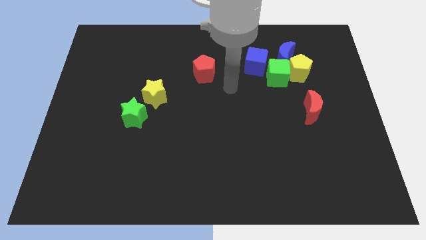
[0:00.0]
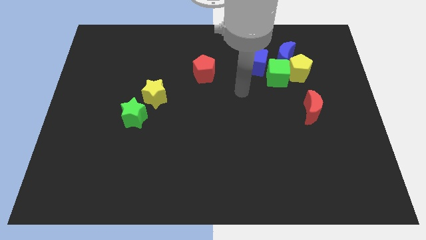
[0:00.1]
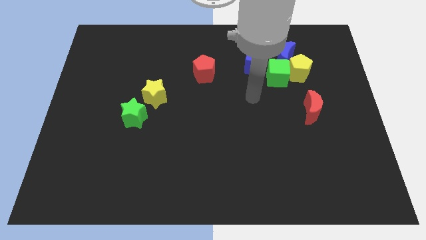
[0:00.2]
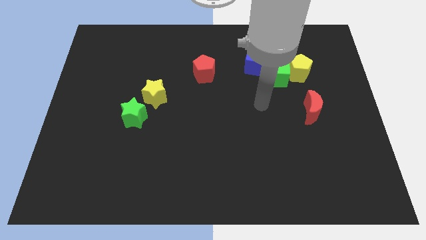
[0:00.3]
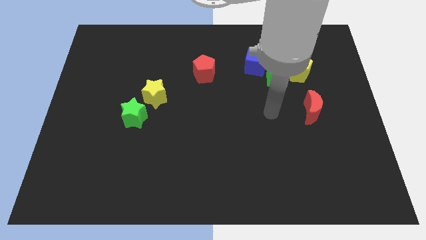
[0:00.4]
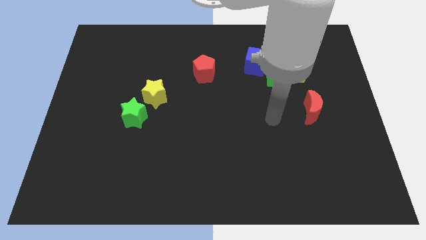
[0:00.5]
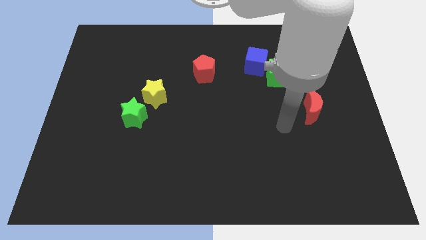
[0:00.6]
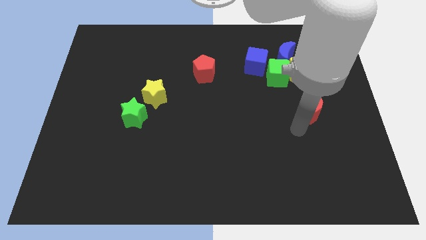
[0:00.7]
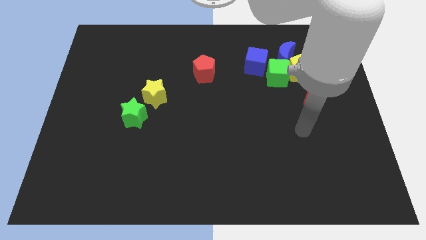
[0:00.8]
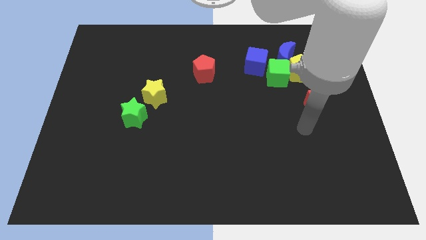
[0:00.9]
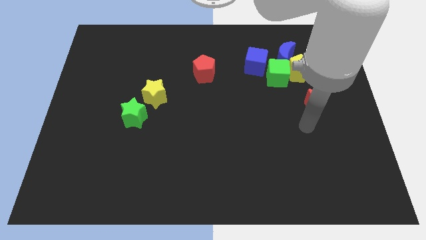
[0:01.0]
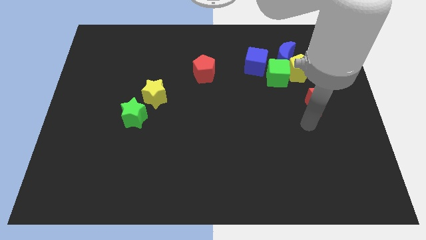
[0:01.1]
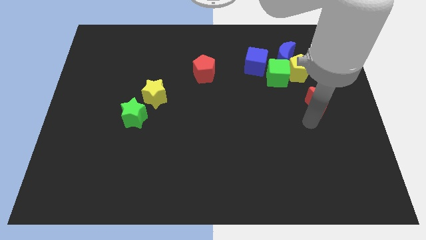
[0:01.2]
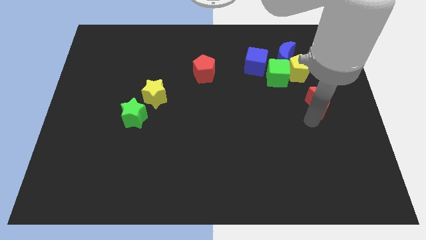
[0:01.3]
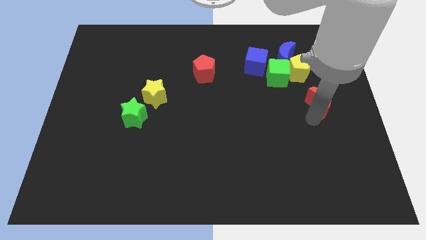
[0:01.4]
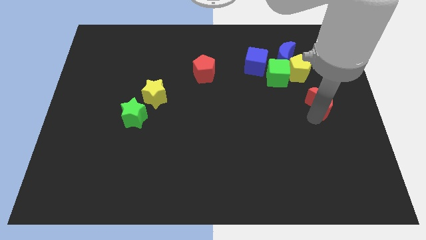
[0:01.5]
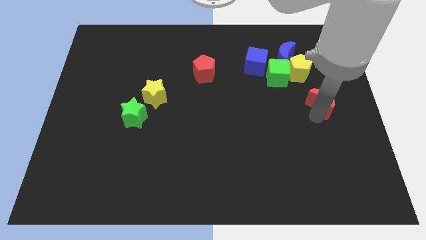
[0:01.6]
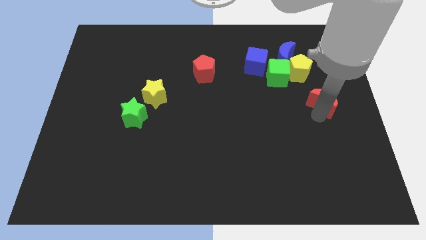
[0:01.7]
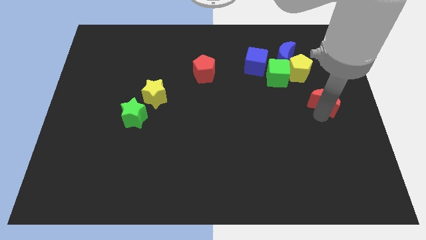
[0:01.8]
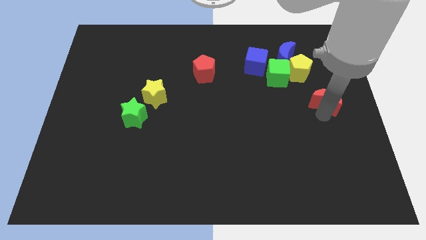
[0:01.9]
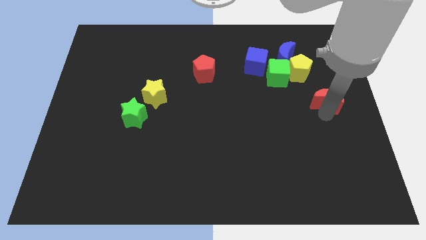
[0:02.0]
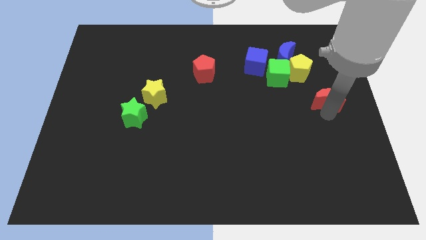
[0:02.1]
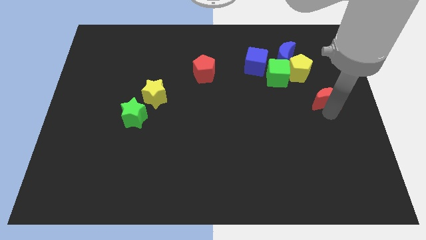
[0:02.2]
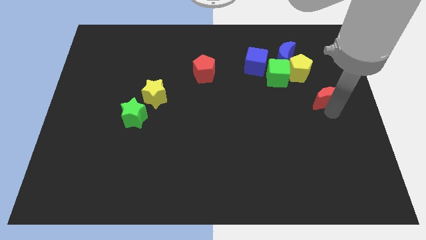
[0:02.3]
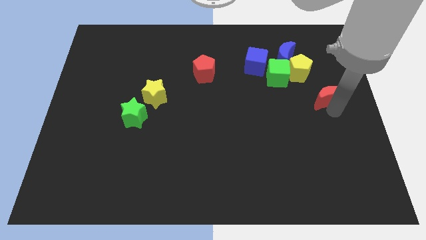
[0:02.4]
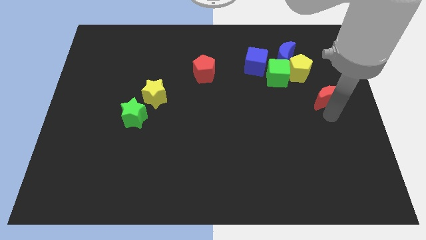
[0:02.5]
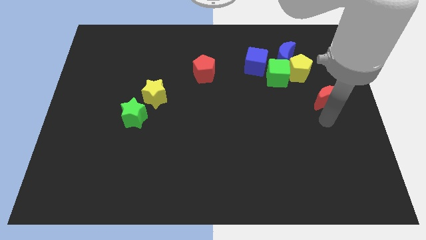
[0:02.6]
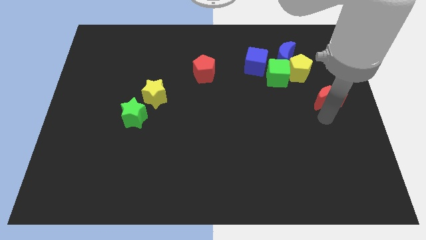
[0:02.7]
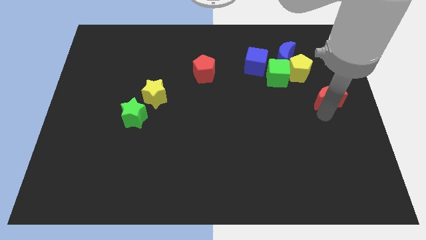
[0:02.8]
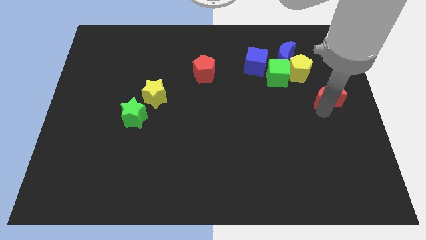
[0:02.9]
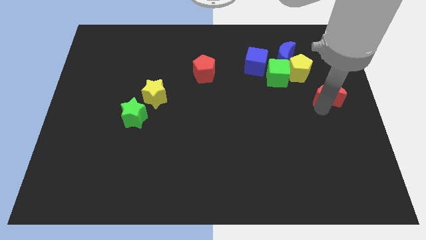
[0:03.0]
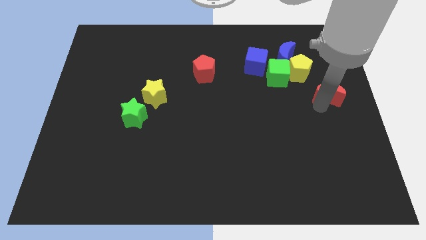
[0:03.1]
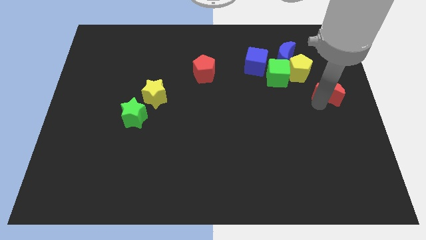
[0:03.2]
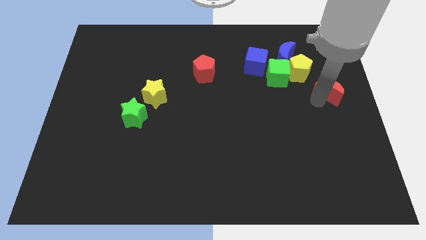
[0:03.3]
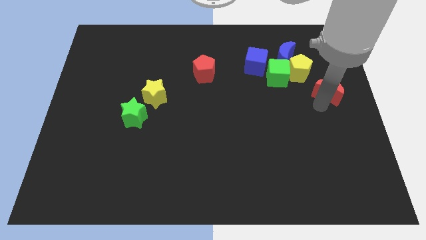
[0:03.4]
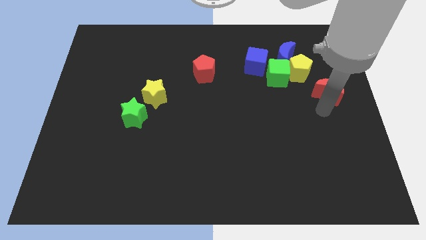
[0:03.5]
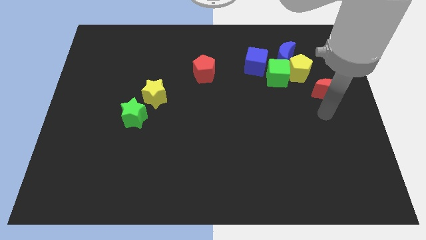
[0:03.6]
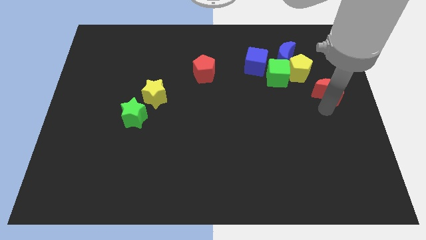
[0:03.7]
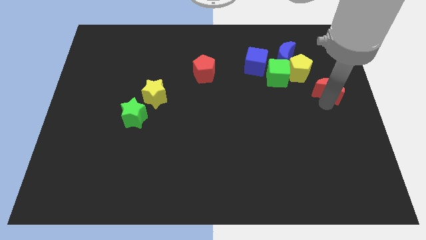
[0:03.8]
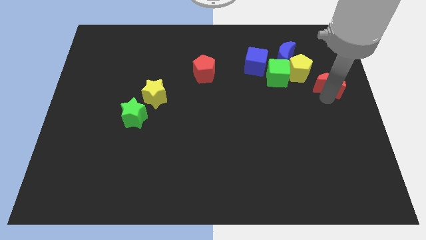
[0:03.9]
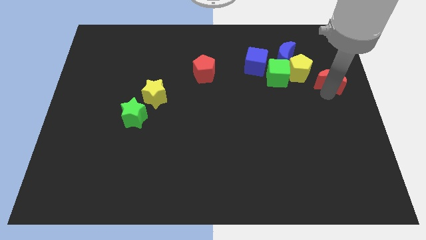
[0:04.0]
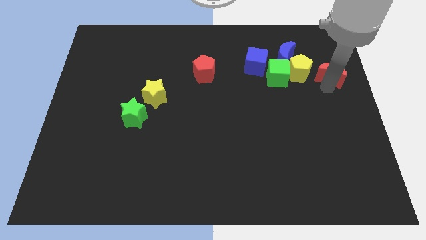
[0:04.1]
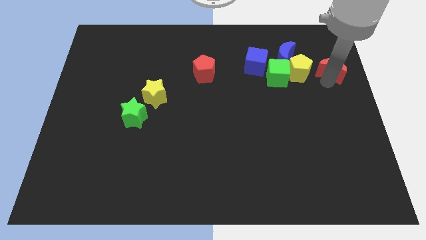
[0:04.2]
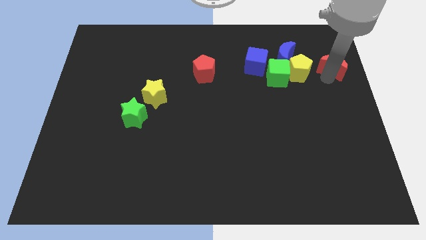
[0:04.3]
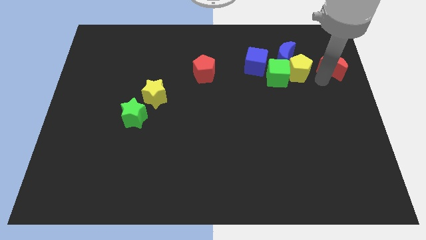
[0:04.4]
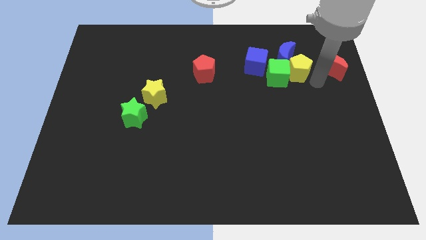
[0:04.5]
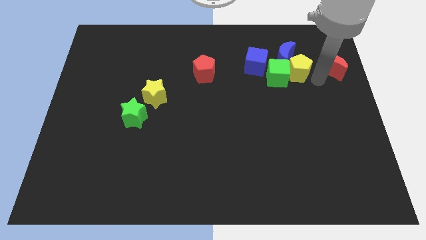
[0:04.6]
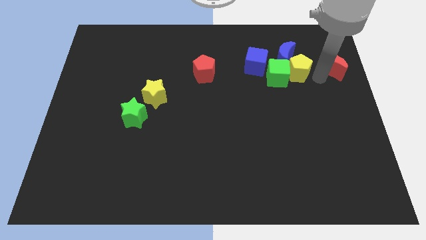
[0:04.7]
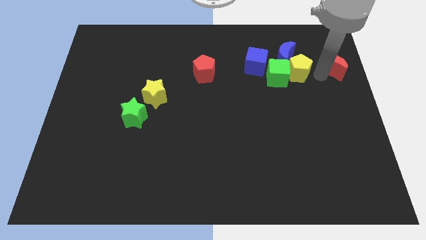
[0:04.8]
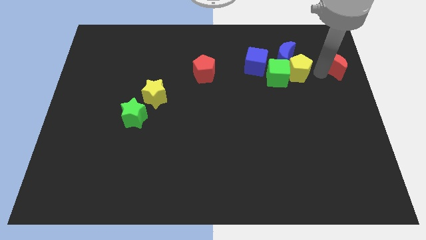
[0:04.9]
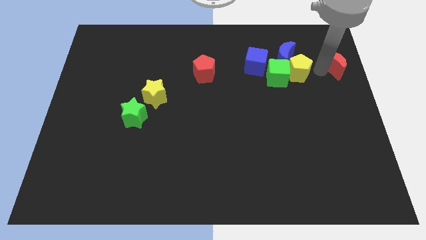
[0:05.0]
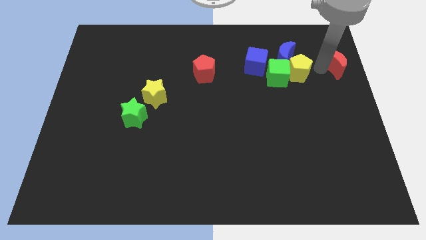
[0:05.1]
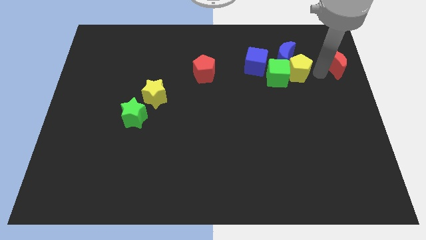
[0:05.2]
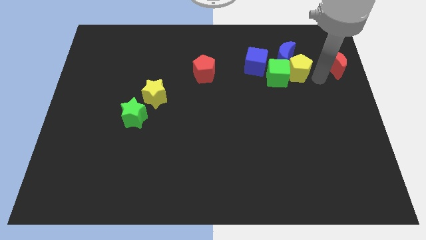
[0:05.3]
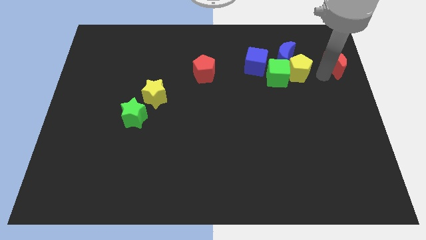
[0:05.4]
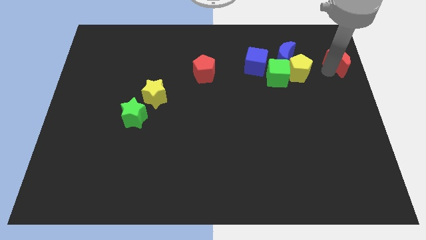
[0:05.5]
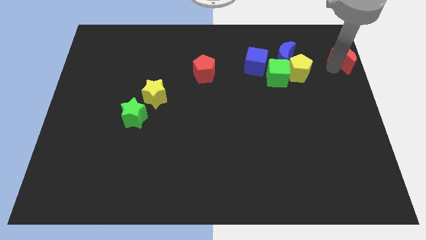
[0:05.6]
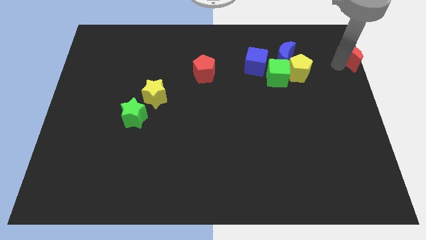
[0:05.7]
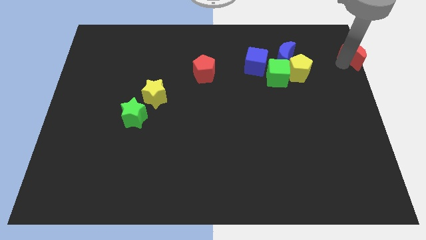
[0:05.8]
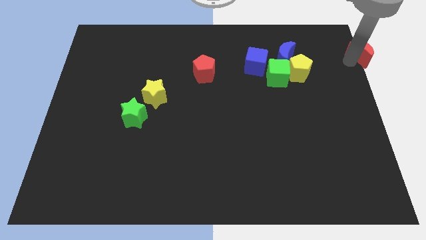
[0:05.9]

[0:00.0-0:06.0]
slide the red moon to the top right of the board
